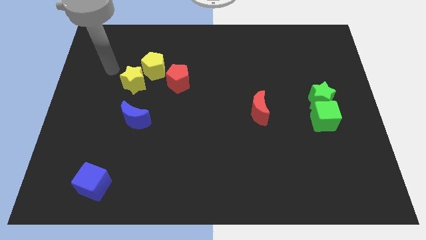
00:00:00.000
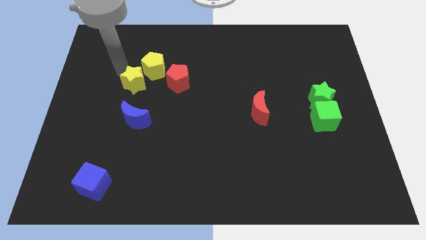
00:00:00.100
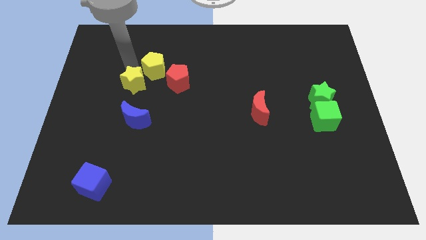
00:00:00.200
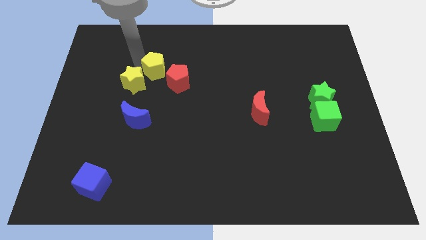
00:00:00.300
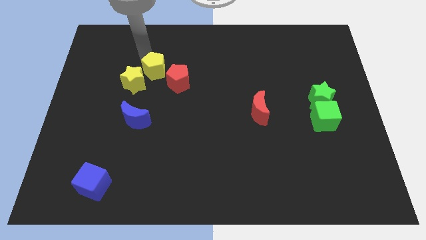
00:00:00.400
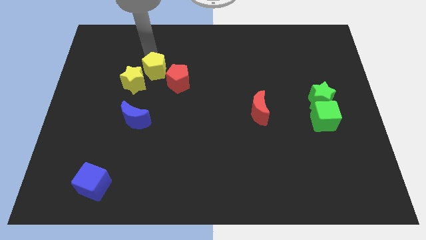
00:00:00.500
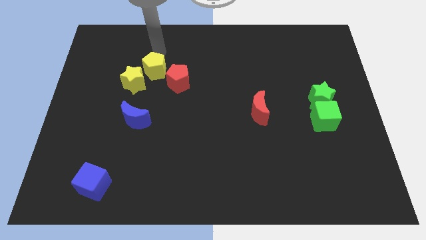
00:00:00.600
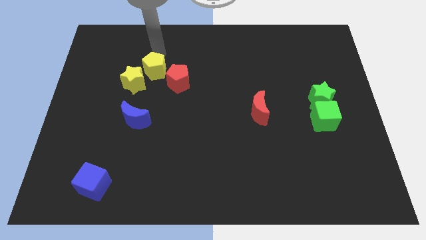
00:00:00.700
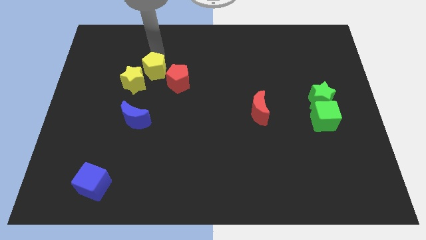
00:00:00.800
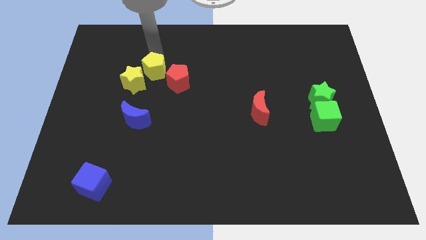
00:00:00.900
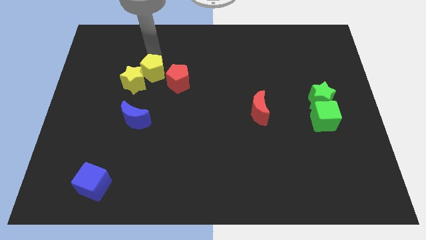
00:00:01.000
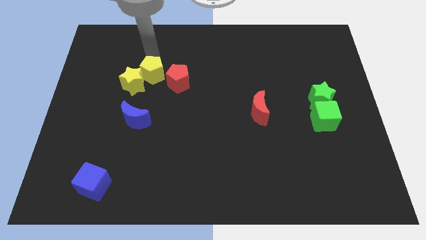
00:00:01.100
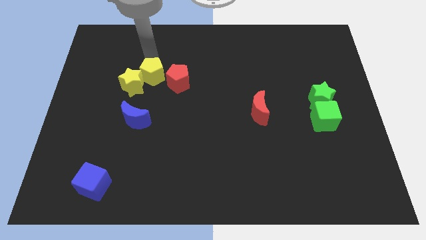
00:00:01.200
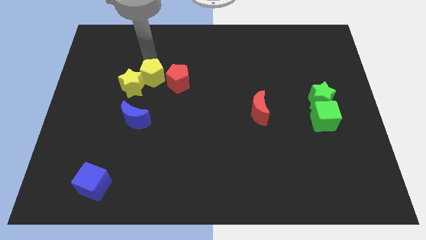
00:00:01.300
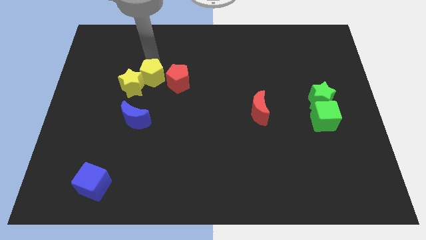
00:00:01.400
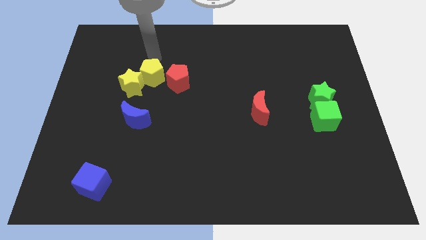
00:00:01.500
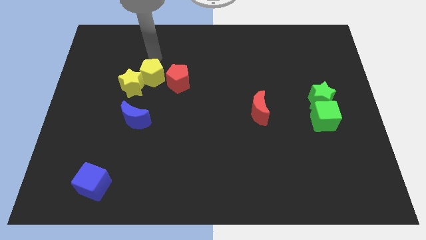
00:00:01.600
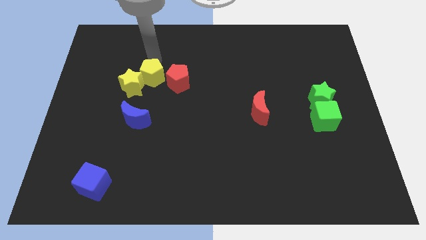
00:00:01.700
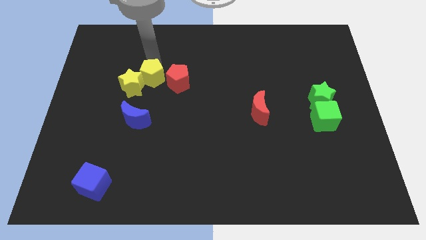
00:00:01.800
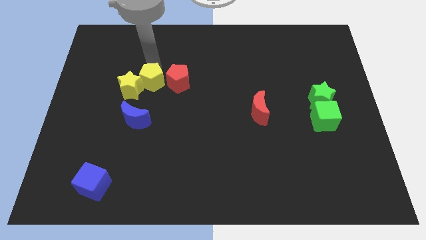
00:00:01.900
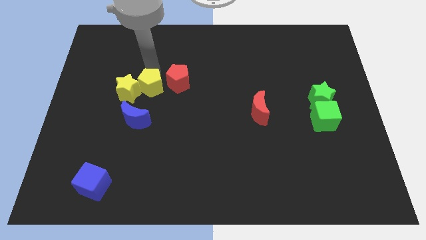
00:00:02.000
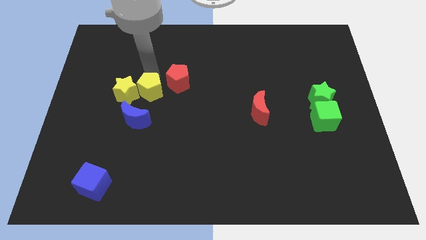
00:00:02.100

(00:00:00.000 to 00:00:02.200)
slightly slide the yellow pentagon downwards

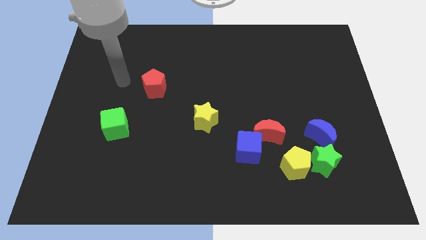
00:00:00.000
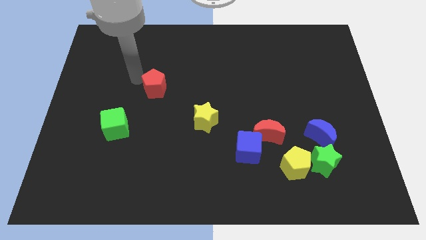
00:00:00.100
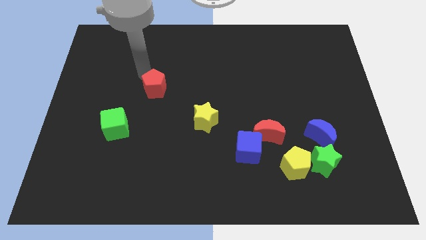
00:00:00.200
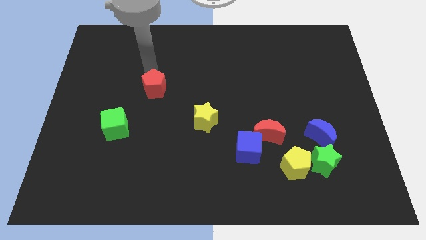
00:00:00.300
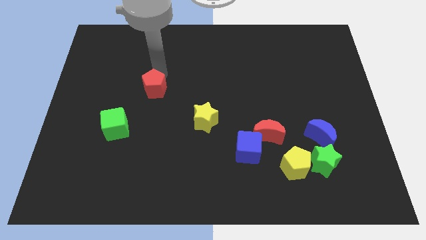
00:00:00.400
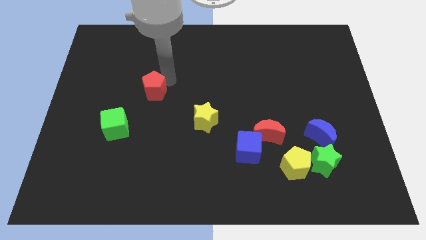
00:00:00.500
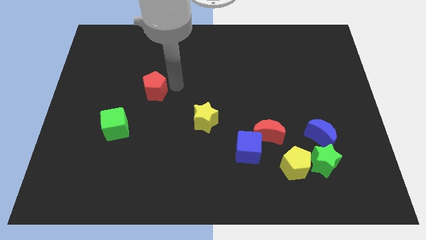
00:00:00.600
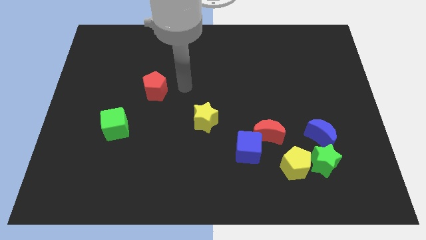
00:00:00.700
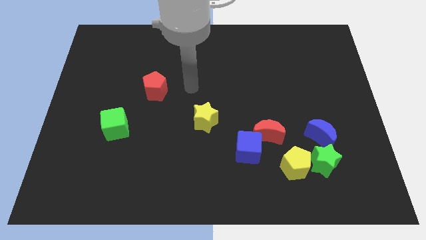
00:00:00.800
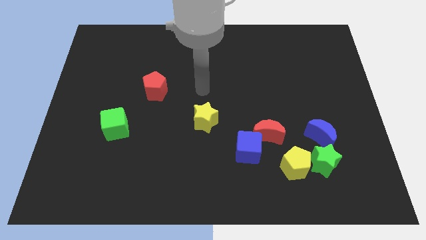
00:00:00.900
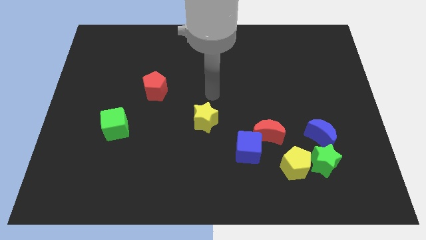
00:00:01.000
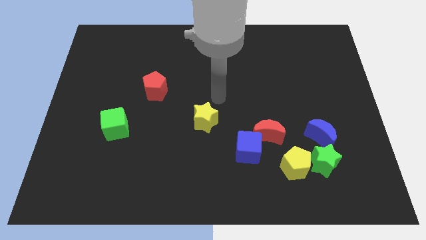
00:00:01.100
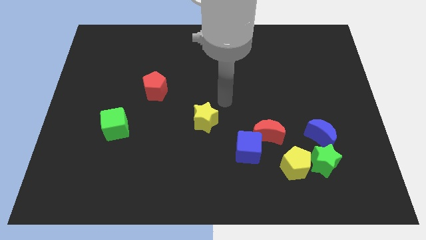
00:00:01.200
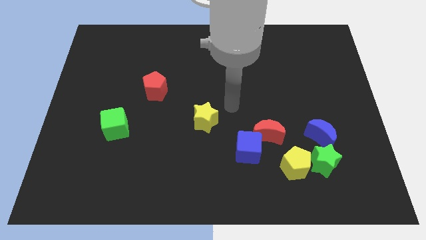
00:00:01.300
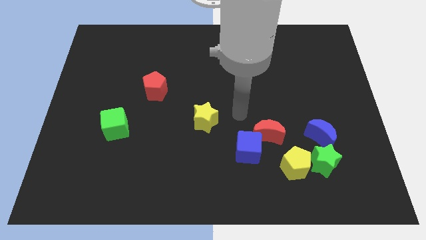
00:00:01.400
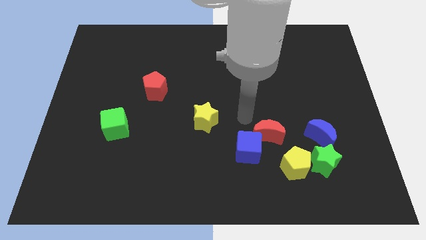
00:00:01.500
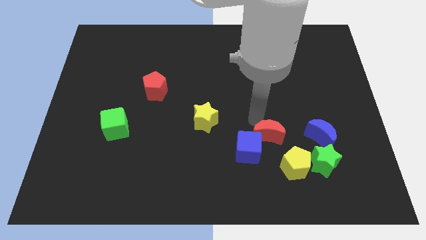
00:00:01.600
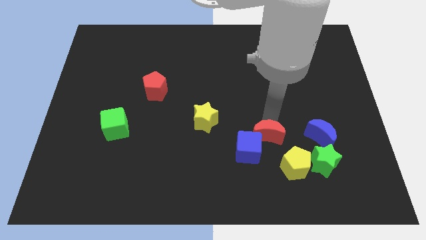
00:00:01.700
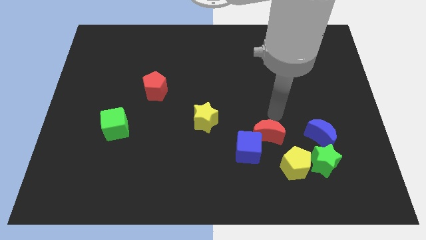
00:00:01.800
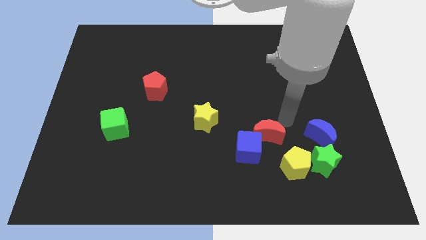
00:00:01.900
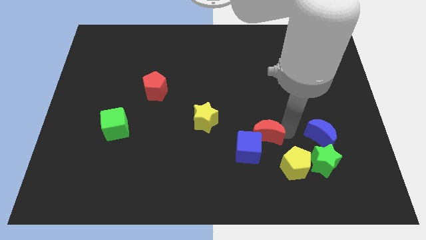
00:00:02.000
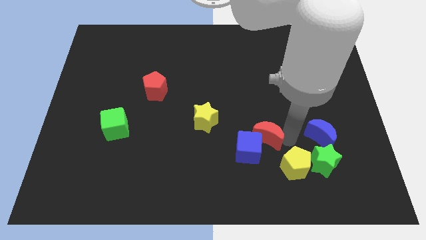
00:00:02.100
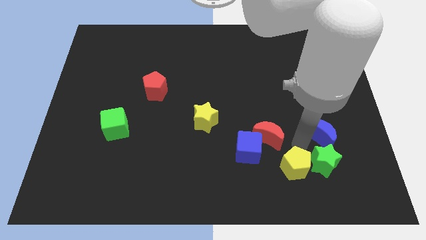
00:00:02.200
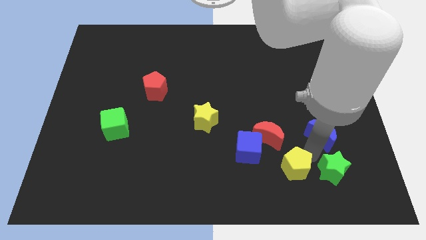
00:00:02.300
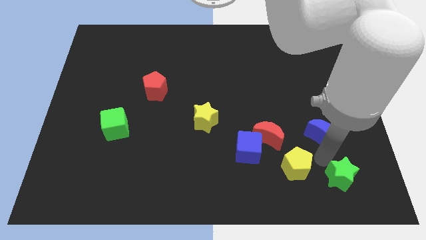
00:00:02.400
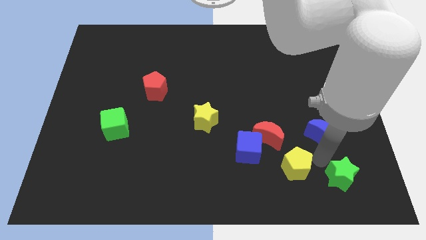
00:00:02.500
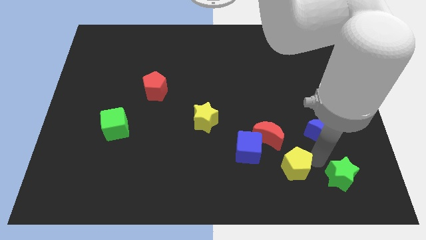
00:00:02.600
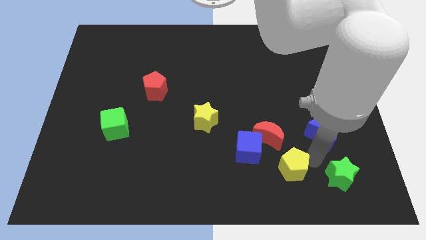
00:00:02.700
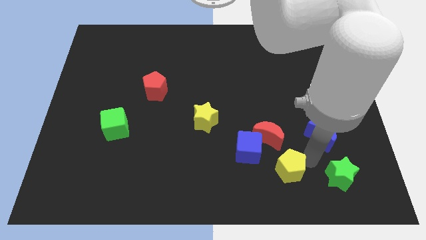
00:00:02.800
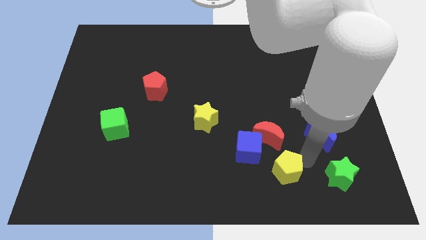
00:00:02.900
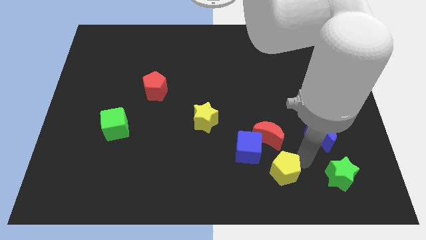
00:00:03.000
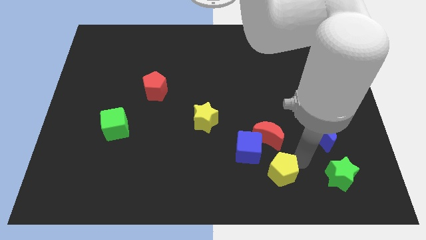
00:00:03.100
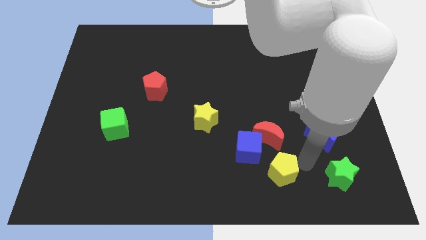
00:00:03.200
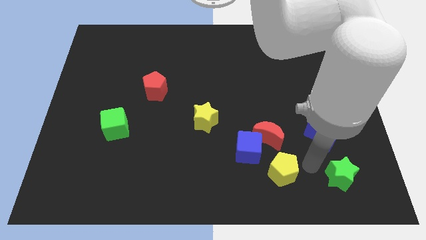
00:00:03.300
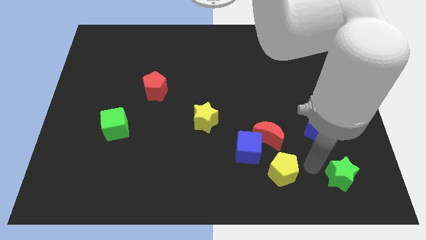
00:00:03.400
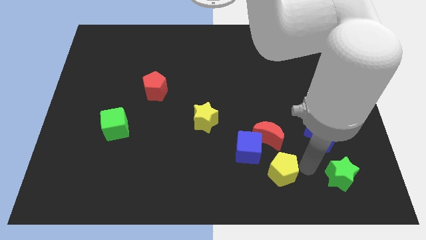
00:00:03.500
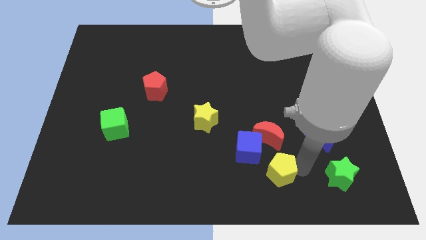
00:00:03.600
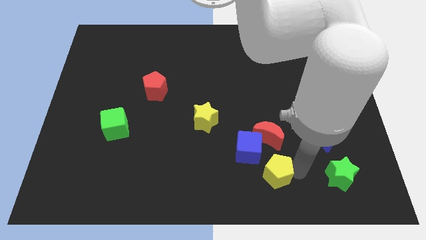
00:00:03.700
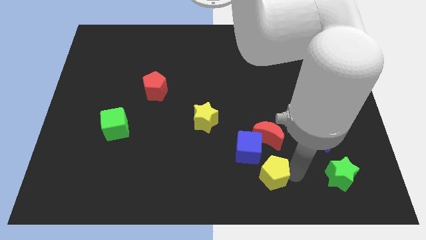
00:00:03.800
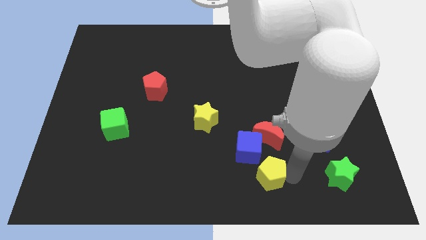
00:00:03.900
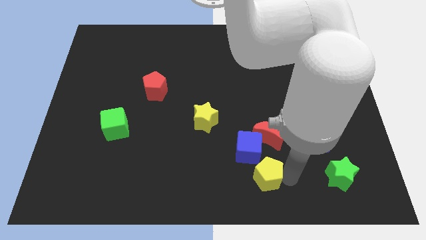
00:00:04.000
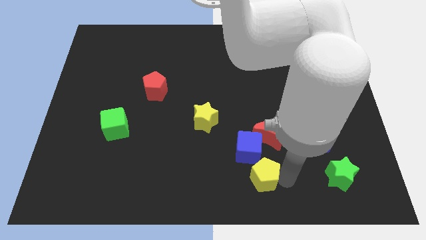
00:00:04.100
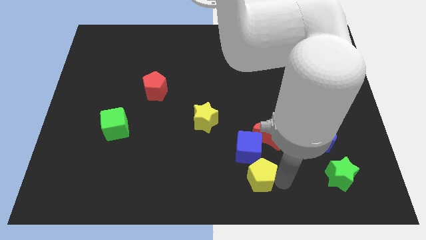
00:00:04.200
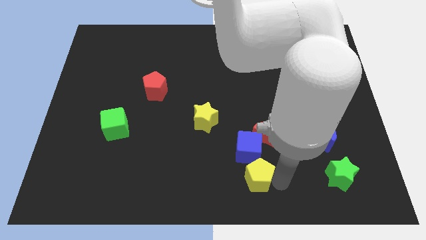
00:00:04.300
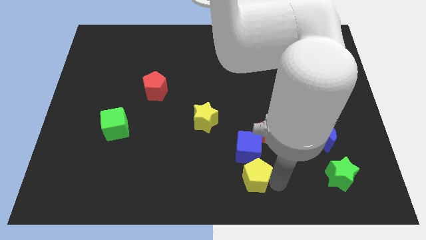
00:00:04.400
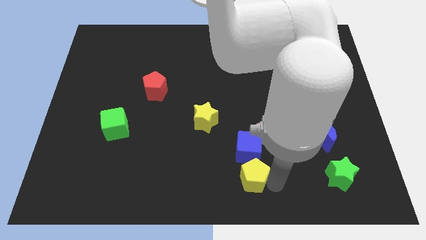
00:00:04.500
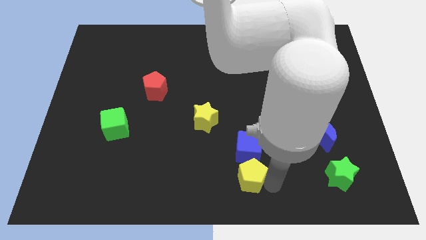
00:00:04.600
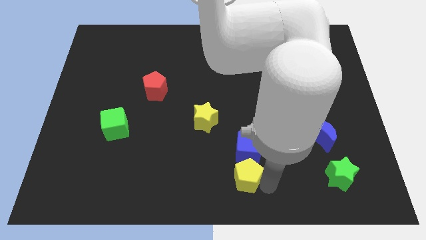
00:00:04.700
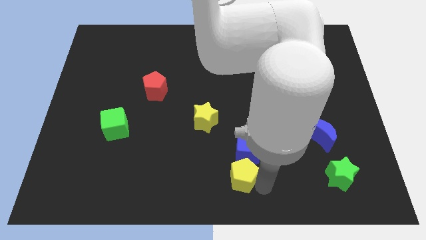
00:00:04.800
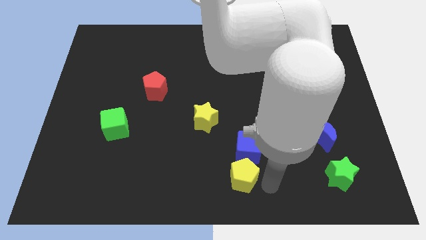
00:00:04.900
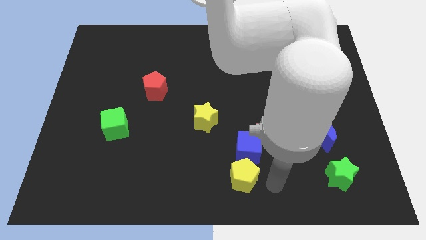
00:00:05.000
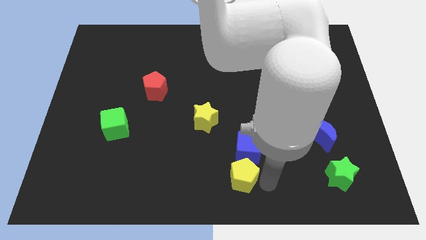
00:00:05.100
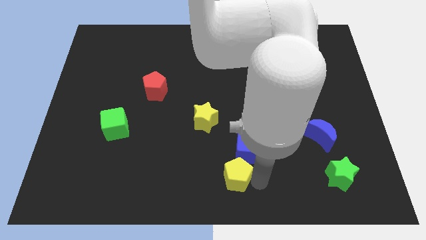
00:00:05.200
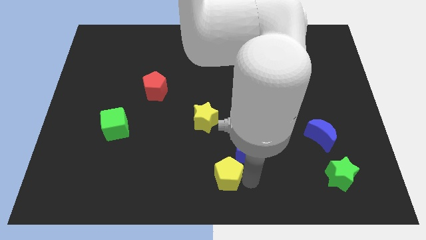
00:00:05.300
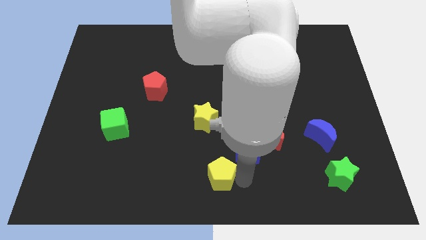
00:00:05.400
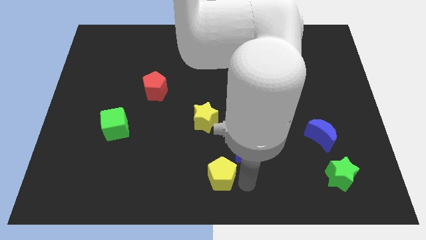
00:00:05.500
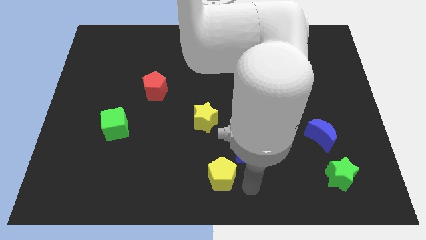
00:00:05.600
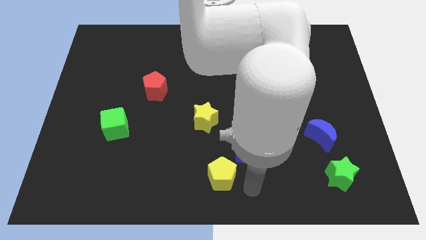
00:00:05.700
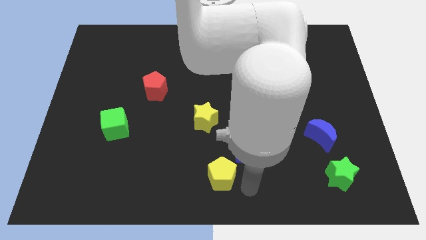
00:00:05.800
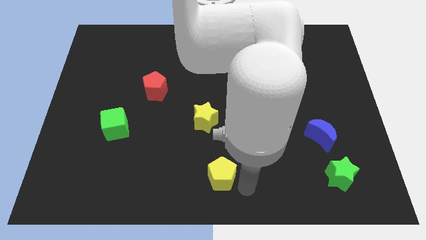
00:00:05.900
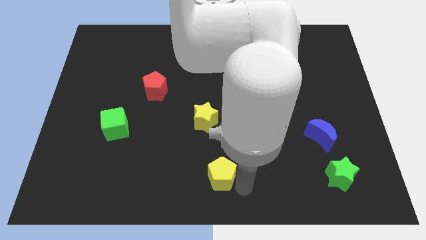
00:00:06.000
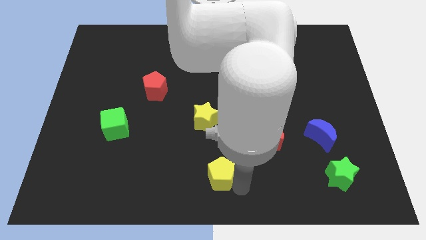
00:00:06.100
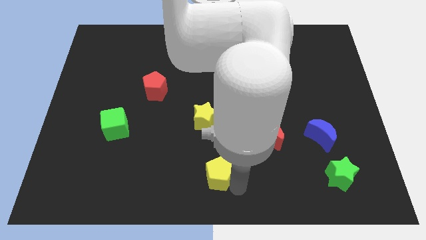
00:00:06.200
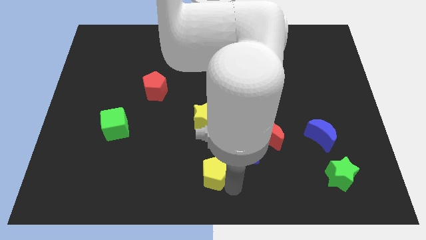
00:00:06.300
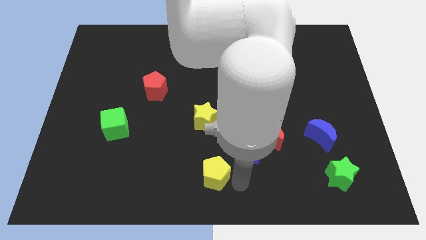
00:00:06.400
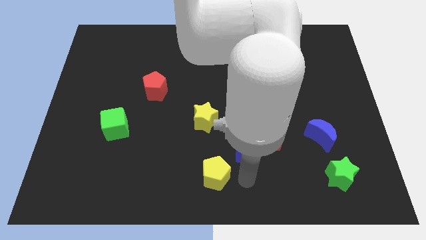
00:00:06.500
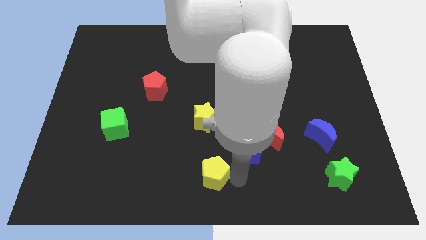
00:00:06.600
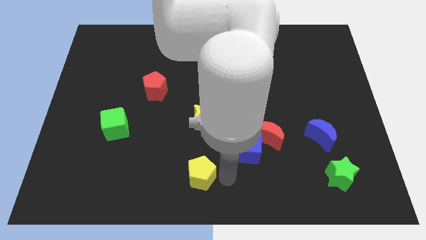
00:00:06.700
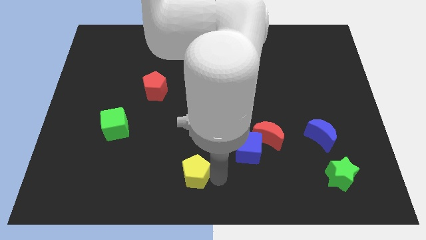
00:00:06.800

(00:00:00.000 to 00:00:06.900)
slide the yellow pentagon left
